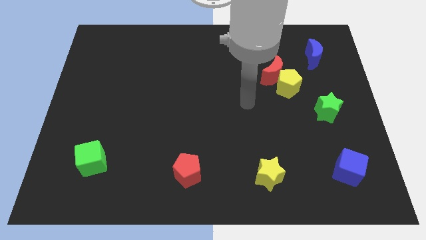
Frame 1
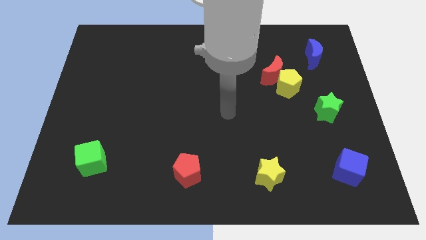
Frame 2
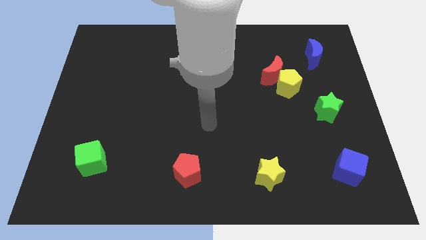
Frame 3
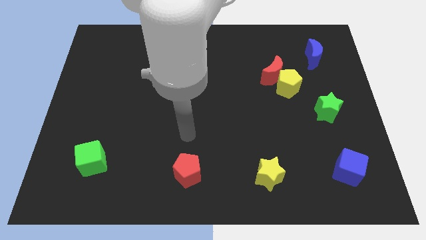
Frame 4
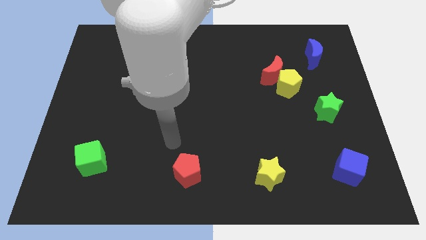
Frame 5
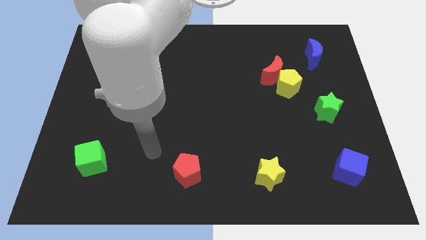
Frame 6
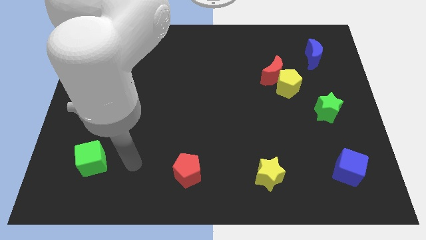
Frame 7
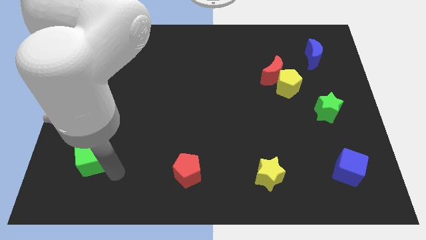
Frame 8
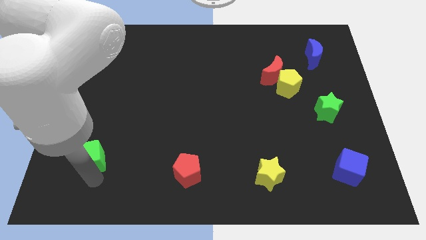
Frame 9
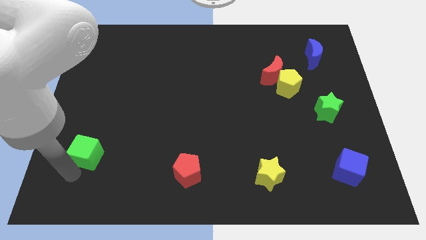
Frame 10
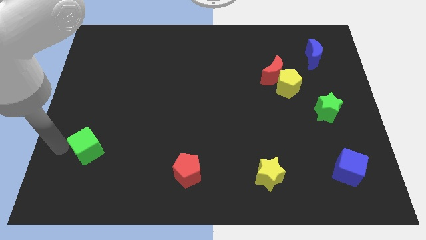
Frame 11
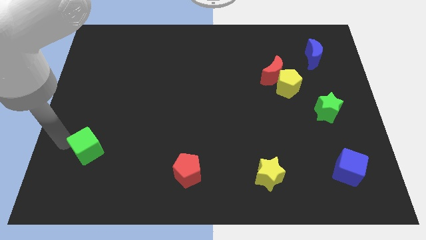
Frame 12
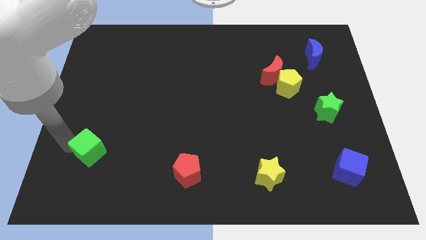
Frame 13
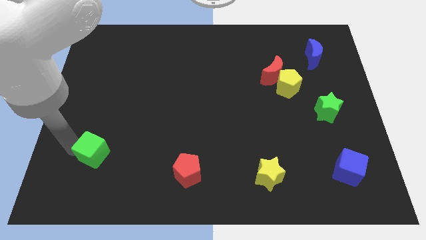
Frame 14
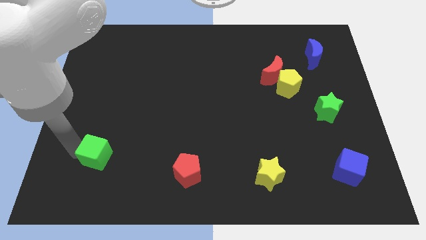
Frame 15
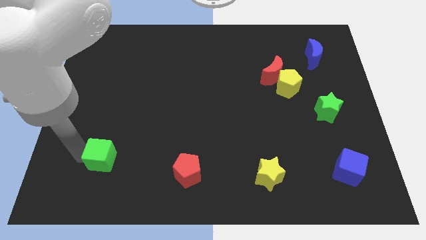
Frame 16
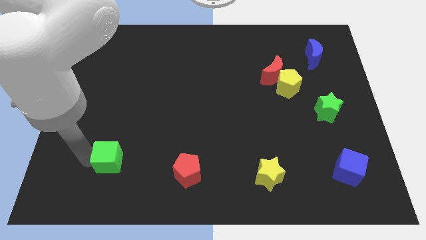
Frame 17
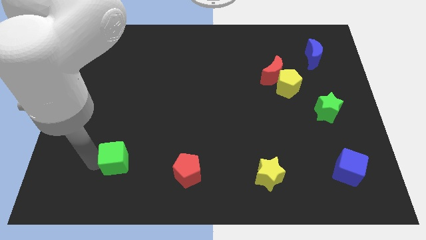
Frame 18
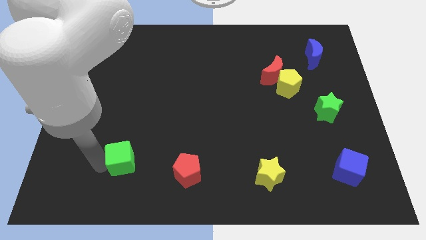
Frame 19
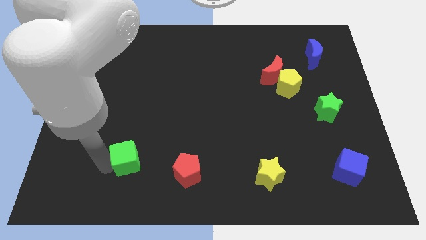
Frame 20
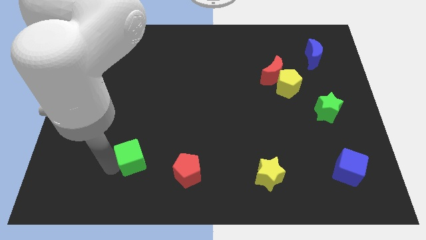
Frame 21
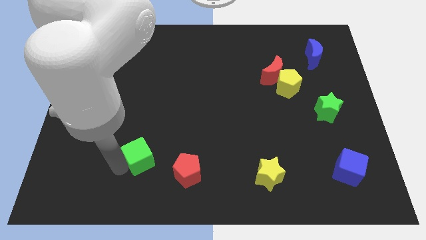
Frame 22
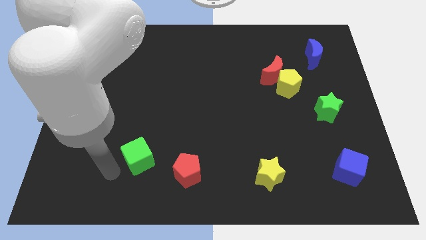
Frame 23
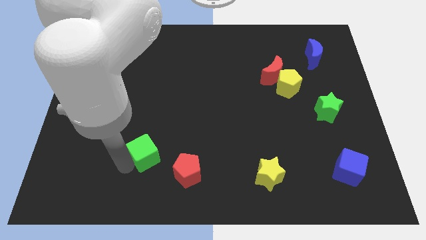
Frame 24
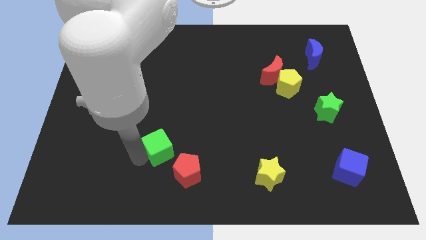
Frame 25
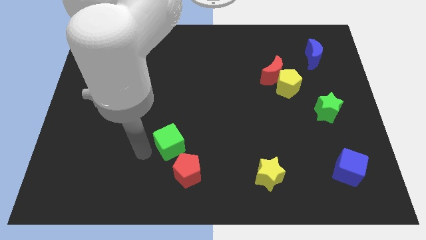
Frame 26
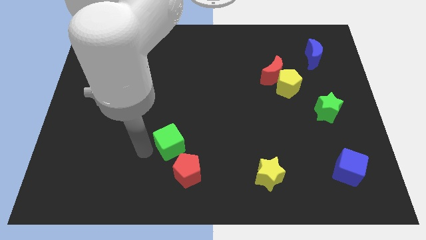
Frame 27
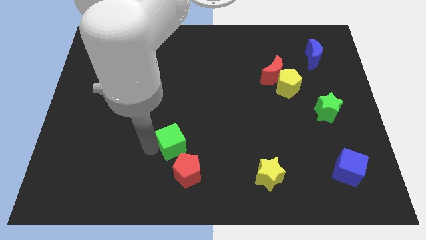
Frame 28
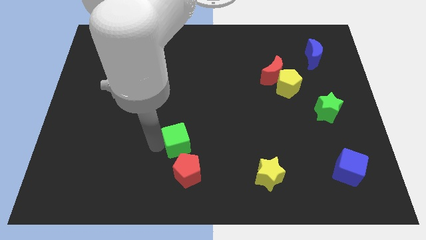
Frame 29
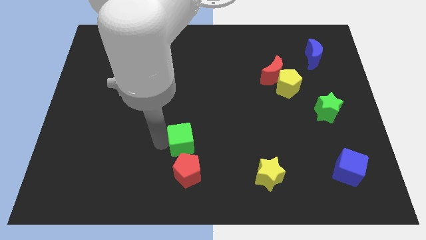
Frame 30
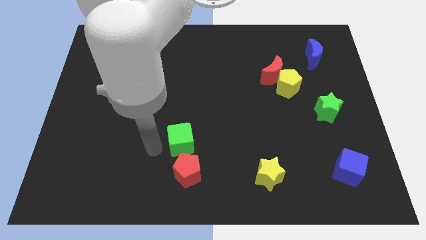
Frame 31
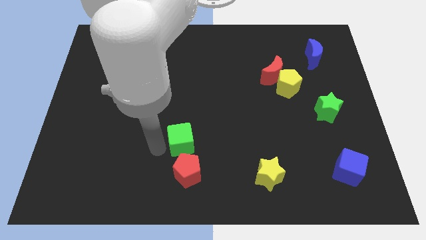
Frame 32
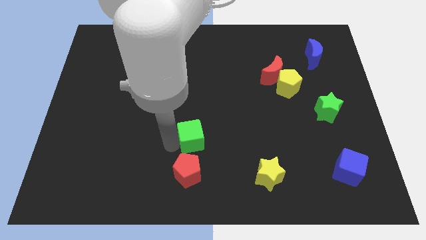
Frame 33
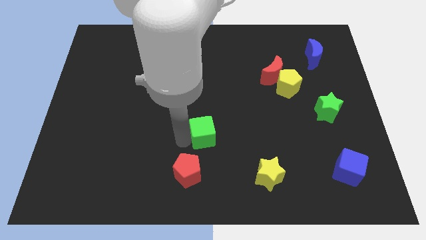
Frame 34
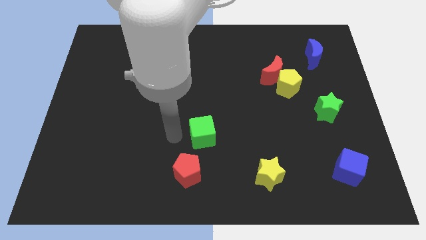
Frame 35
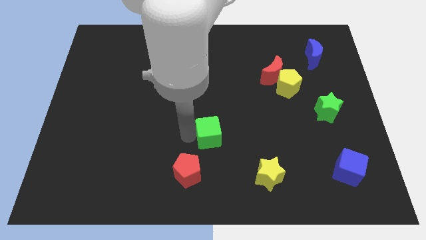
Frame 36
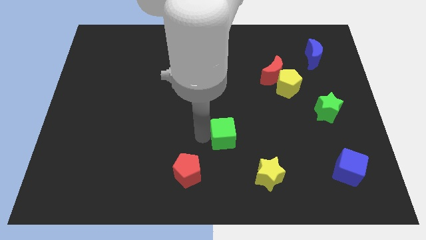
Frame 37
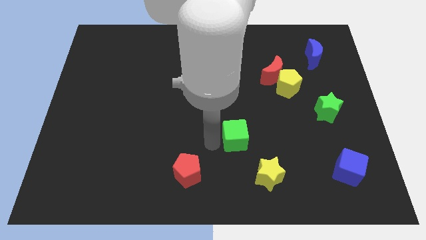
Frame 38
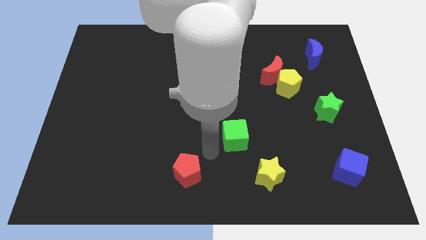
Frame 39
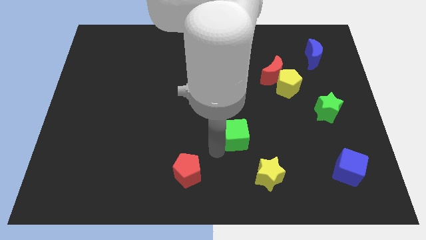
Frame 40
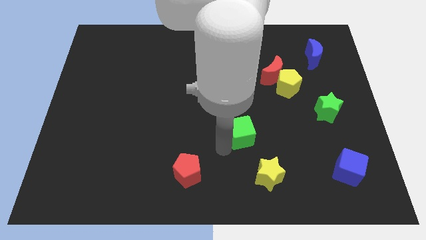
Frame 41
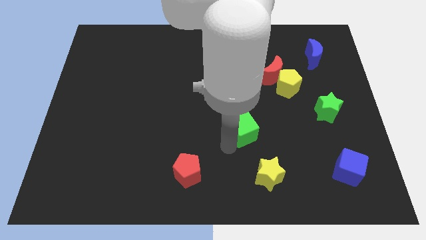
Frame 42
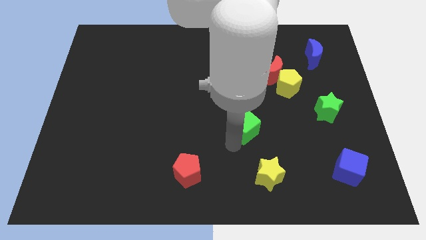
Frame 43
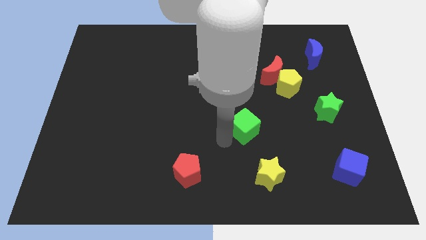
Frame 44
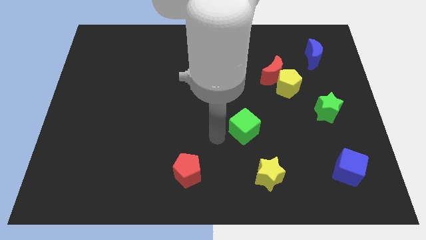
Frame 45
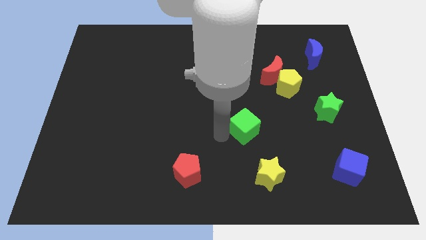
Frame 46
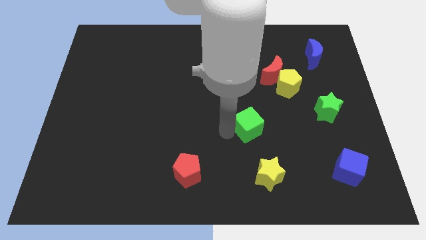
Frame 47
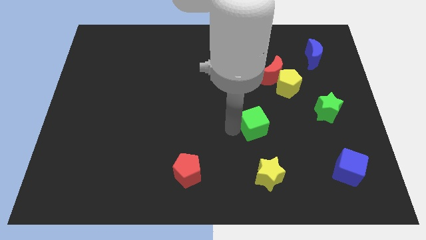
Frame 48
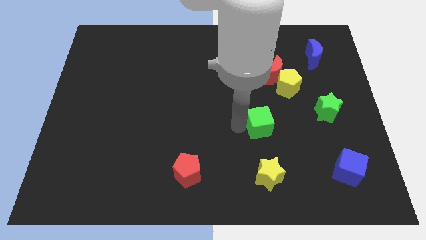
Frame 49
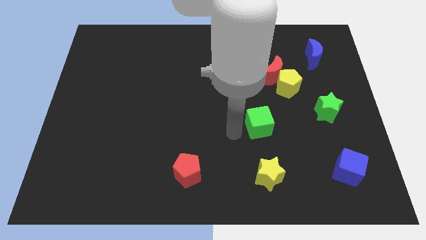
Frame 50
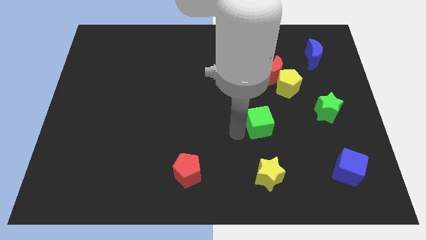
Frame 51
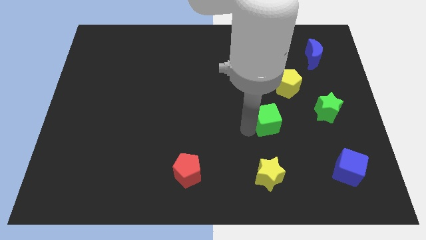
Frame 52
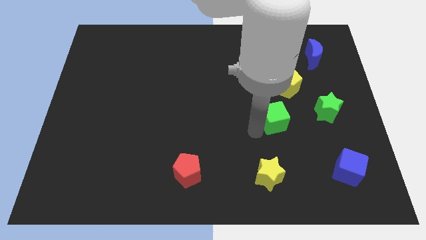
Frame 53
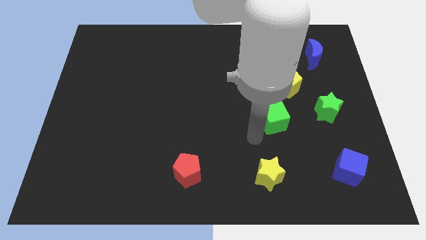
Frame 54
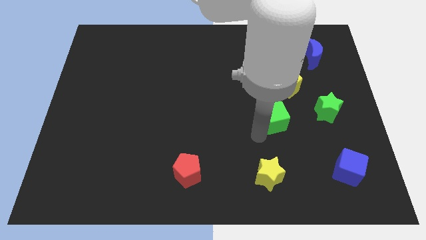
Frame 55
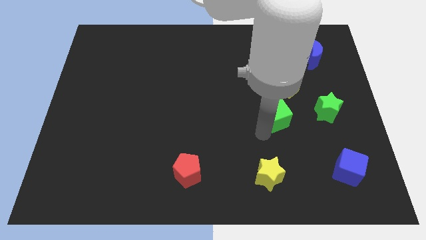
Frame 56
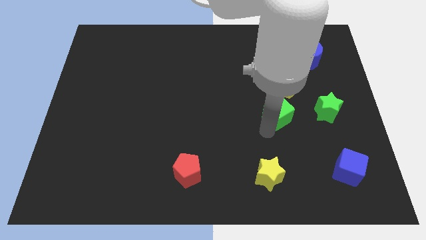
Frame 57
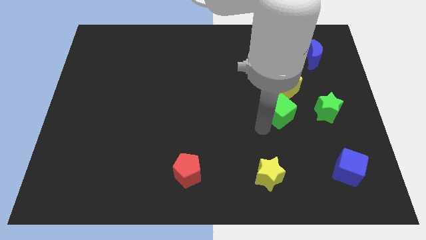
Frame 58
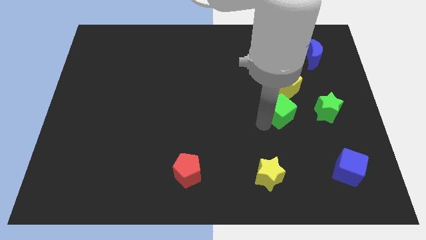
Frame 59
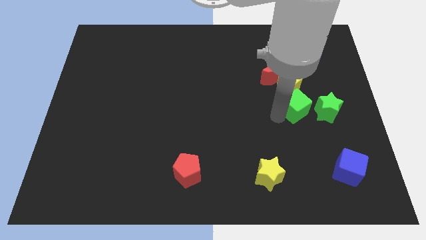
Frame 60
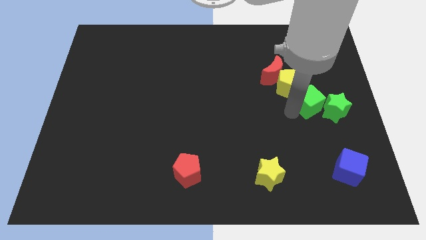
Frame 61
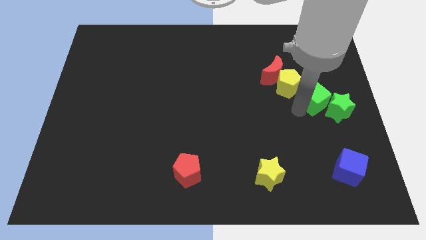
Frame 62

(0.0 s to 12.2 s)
put the green cube to the bottom side of the blue moon
